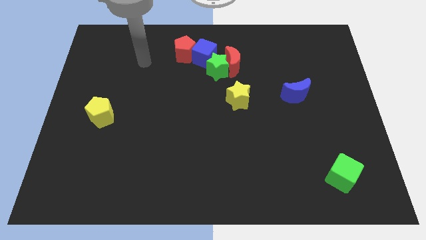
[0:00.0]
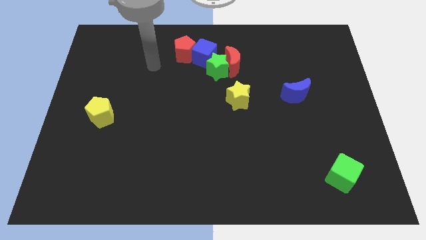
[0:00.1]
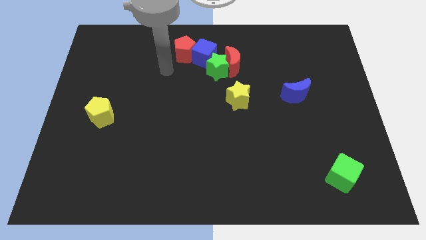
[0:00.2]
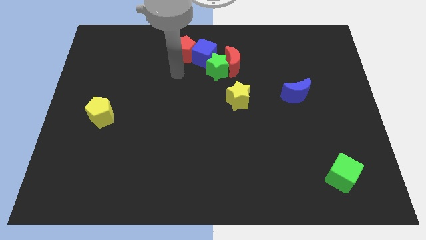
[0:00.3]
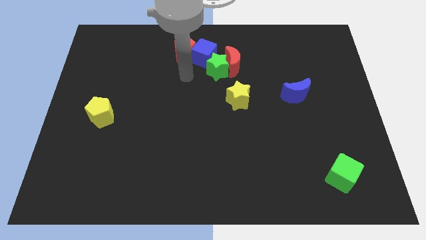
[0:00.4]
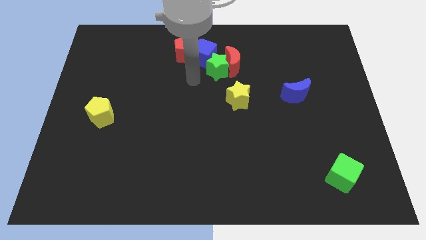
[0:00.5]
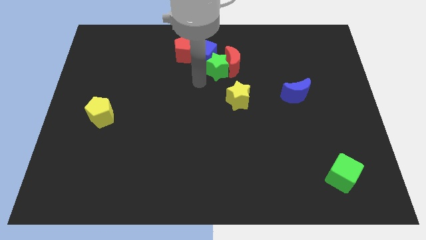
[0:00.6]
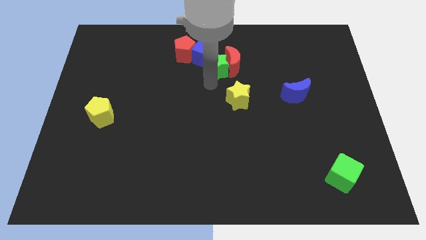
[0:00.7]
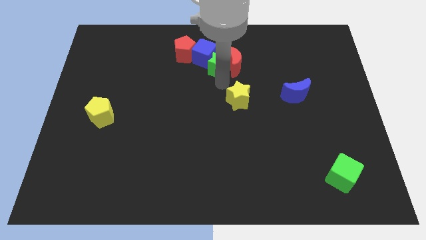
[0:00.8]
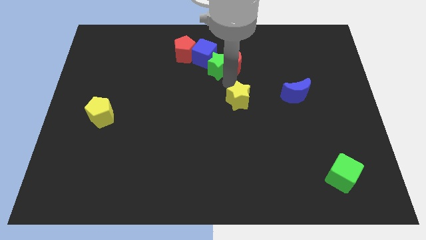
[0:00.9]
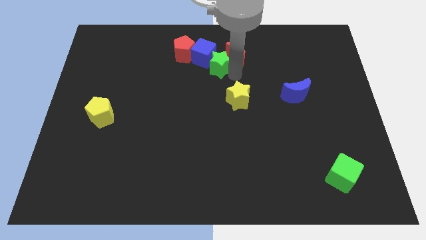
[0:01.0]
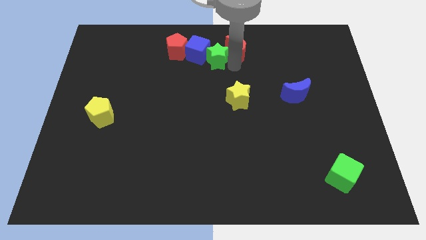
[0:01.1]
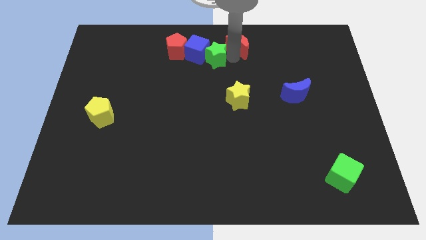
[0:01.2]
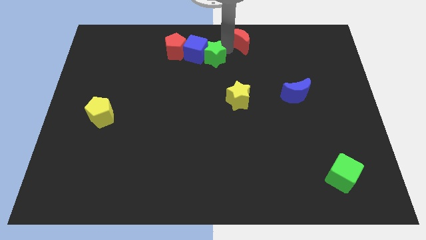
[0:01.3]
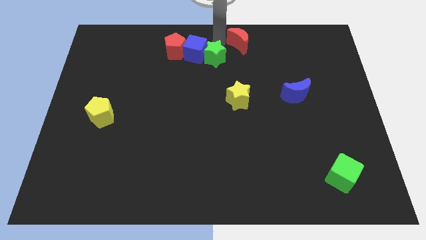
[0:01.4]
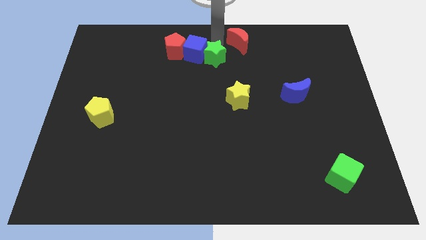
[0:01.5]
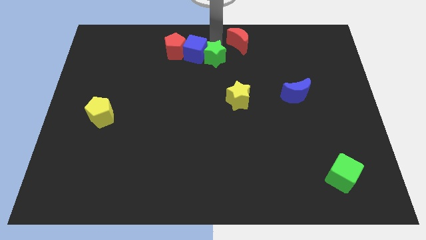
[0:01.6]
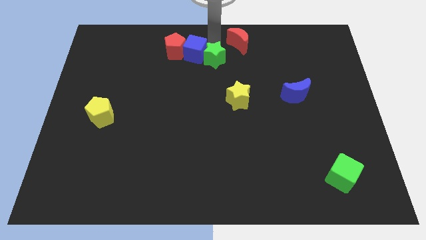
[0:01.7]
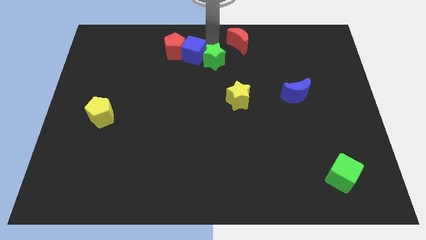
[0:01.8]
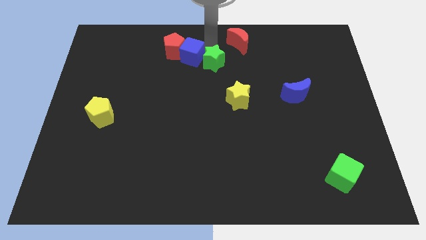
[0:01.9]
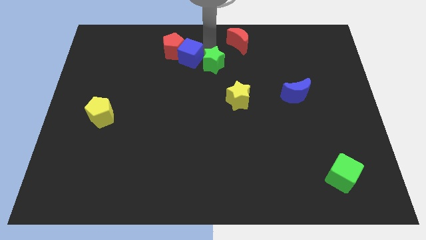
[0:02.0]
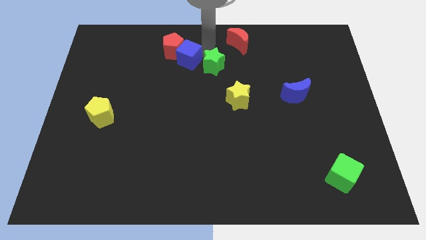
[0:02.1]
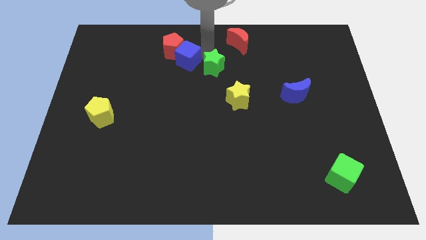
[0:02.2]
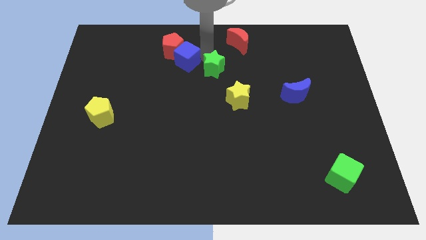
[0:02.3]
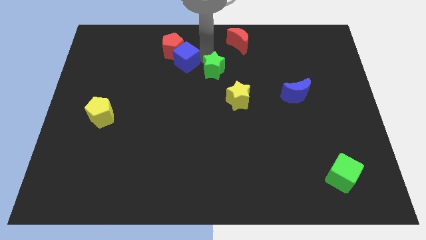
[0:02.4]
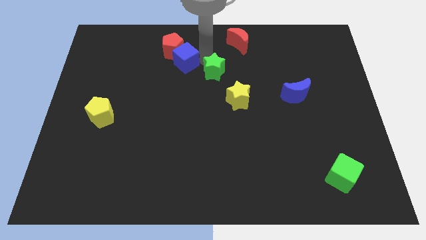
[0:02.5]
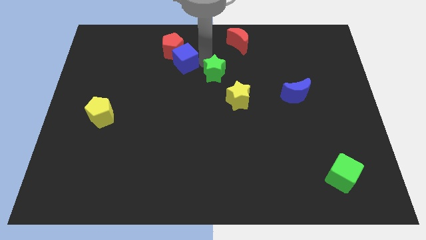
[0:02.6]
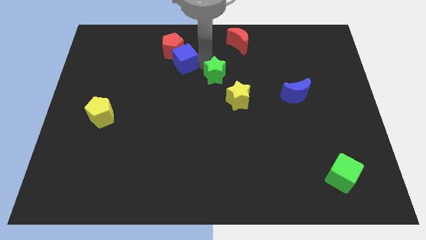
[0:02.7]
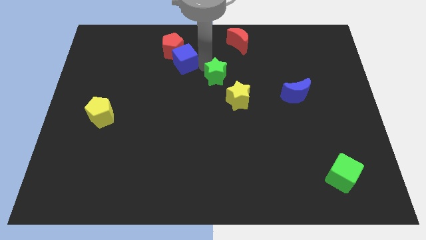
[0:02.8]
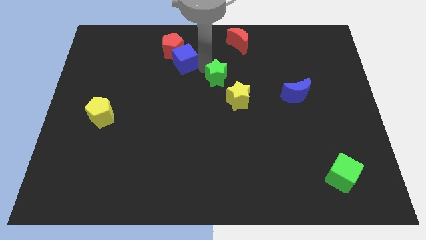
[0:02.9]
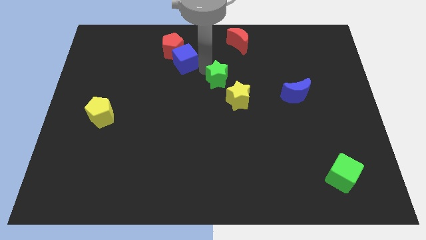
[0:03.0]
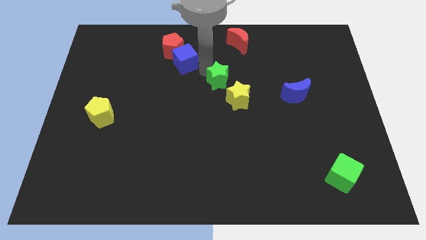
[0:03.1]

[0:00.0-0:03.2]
separate the green star from the red moon and blue cube

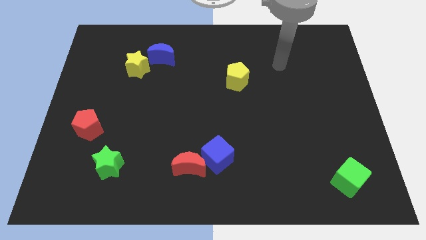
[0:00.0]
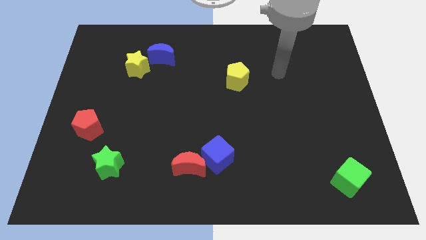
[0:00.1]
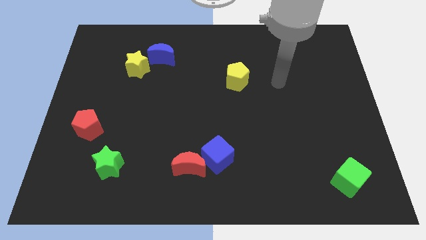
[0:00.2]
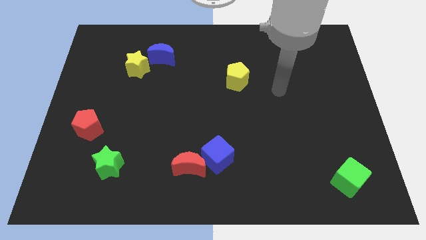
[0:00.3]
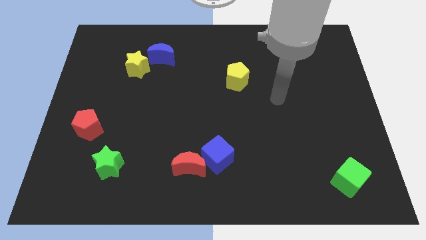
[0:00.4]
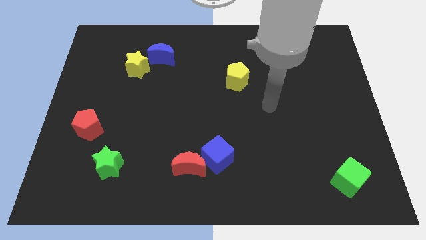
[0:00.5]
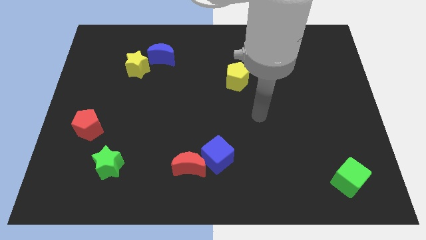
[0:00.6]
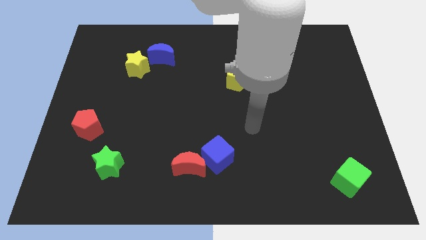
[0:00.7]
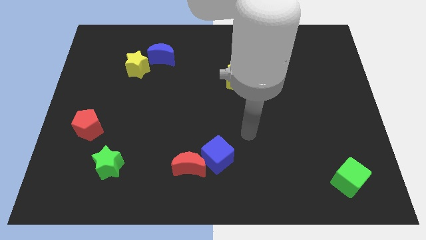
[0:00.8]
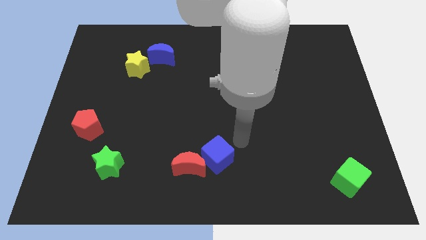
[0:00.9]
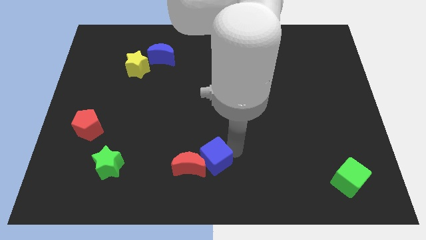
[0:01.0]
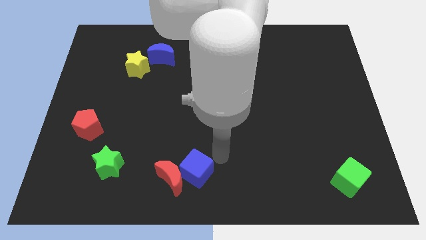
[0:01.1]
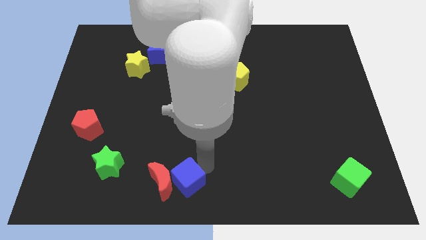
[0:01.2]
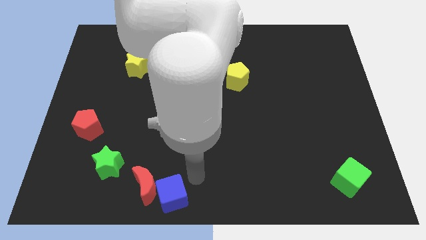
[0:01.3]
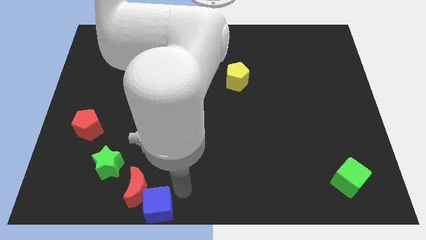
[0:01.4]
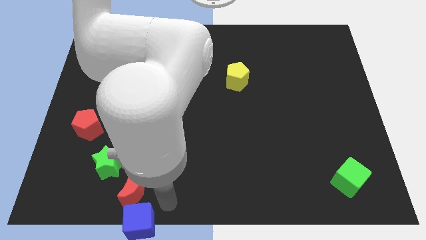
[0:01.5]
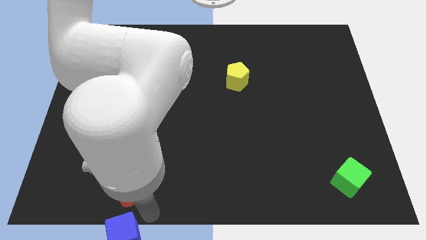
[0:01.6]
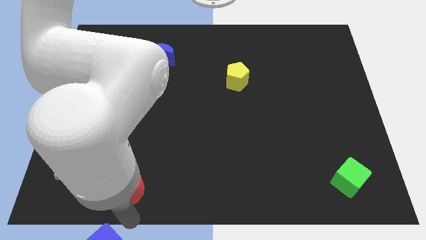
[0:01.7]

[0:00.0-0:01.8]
separate the red moon from the blue cube

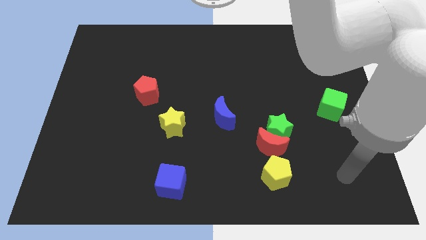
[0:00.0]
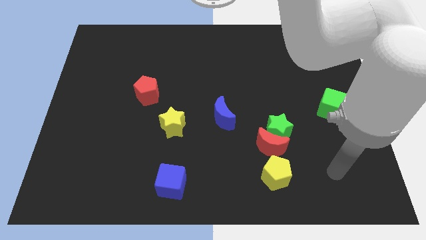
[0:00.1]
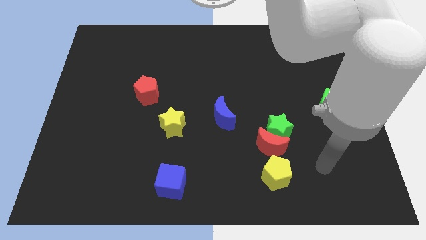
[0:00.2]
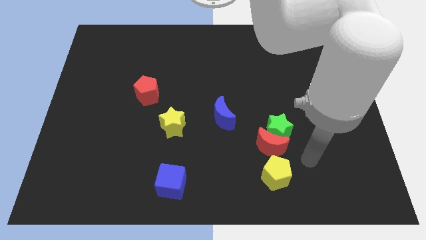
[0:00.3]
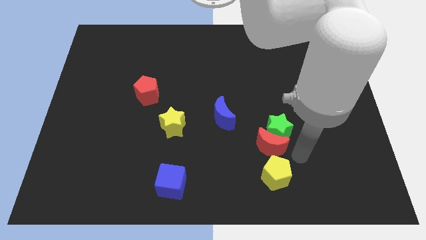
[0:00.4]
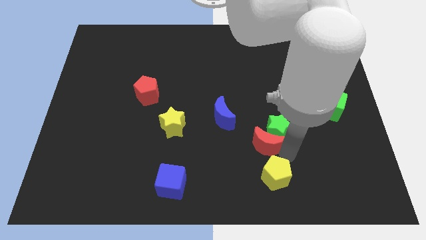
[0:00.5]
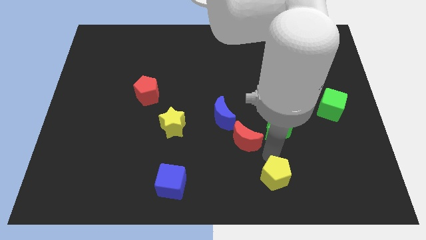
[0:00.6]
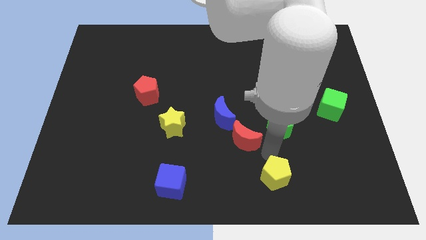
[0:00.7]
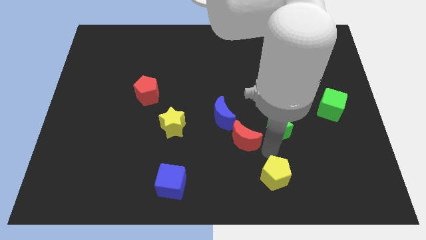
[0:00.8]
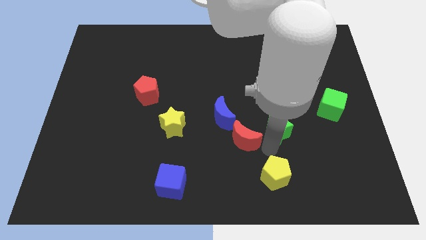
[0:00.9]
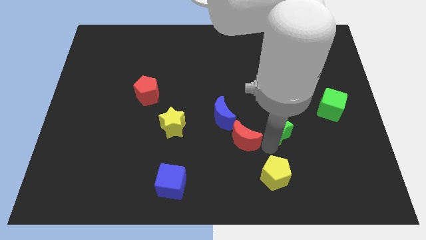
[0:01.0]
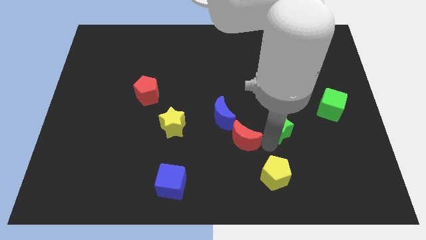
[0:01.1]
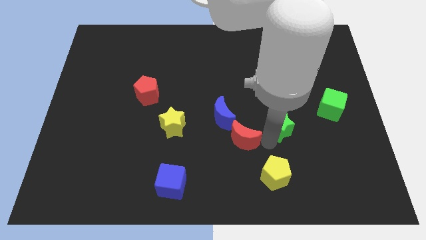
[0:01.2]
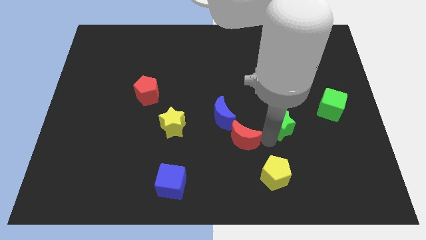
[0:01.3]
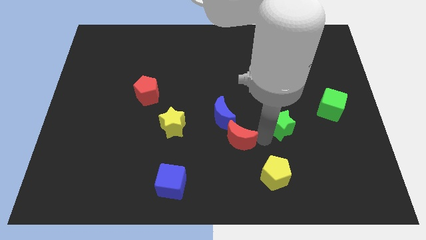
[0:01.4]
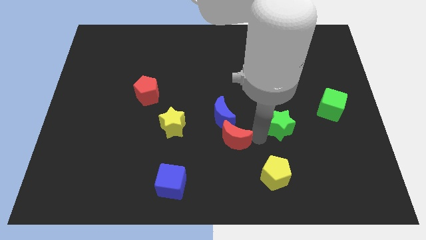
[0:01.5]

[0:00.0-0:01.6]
move the green star away from the red moon

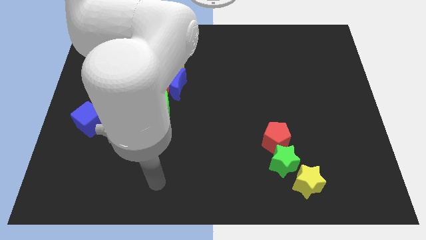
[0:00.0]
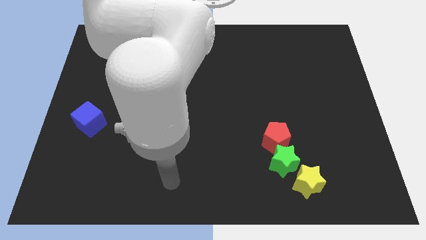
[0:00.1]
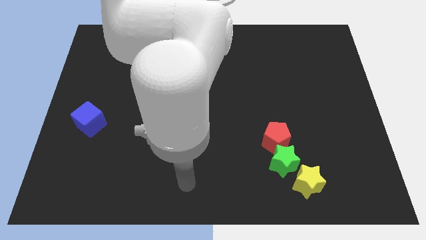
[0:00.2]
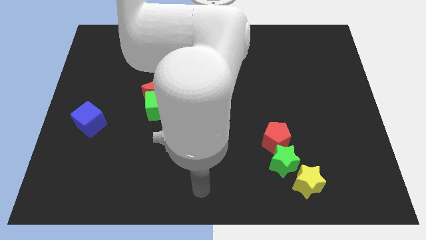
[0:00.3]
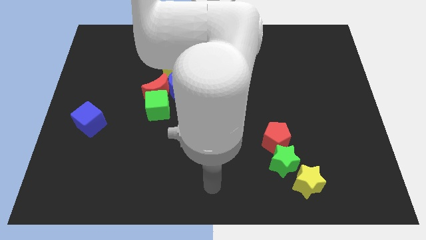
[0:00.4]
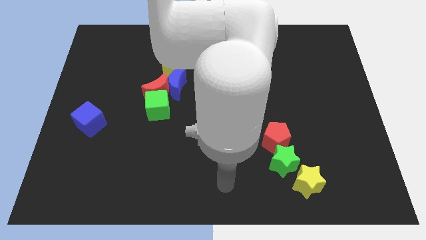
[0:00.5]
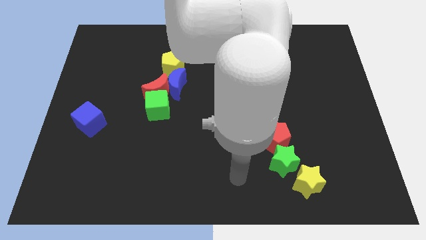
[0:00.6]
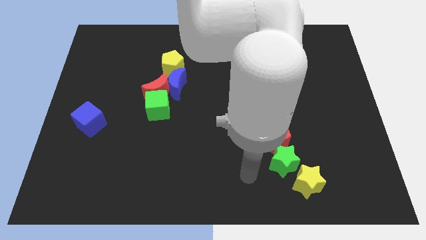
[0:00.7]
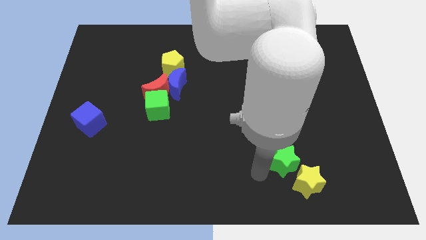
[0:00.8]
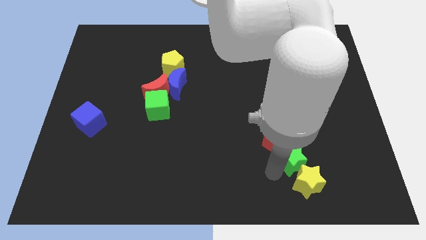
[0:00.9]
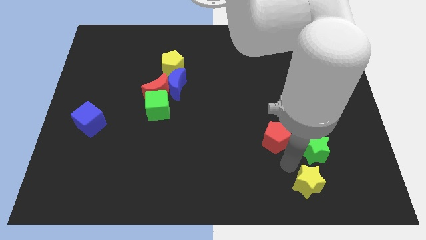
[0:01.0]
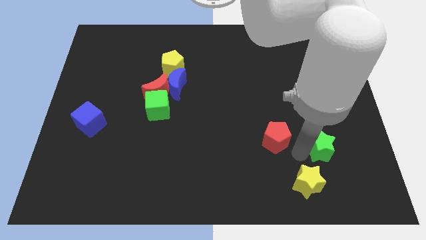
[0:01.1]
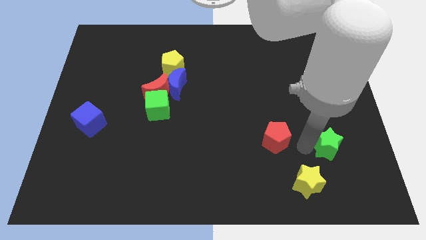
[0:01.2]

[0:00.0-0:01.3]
move the red pentagon away from the green star

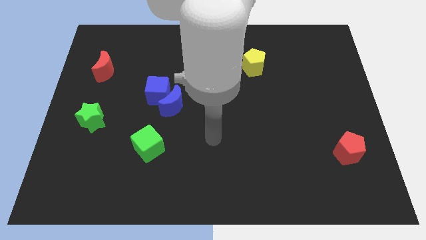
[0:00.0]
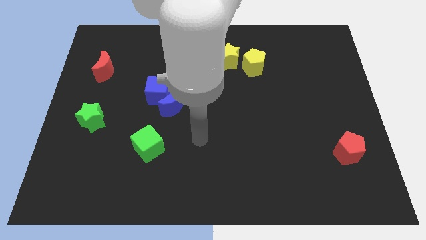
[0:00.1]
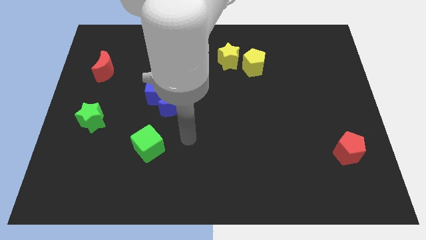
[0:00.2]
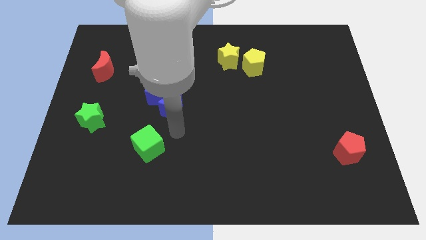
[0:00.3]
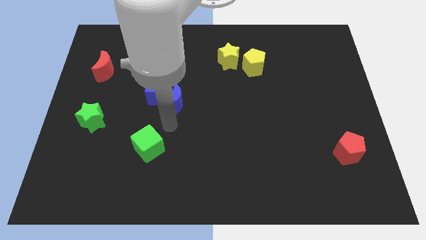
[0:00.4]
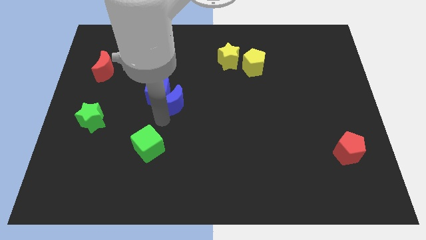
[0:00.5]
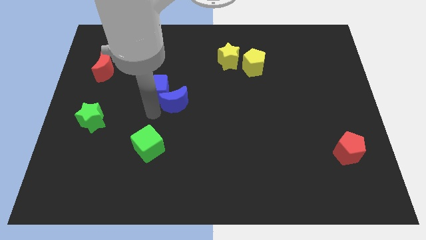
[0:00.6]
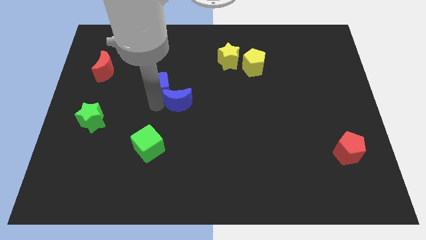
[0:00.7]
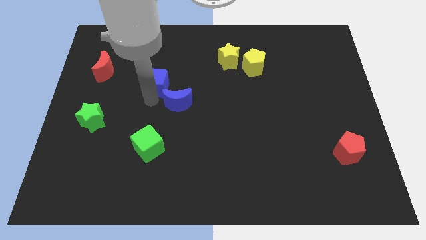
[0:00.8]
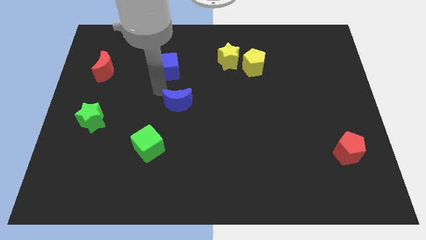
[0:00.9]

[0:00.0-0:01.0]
move the blue moon away from the blue cube

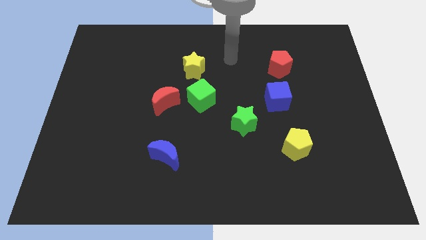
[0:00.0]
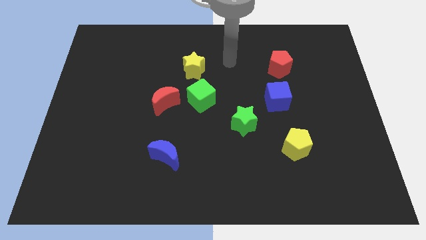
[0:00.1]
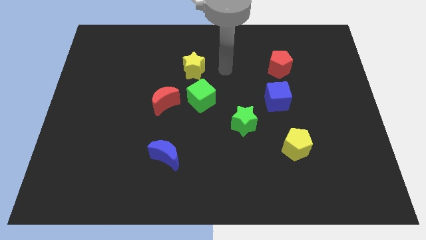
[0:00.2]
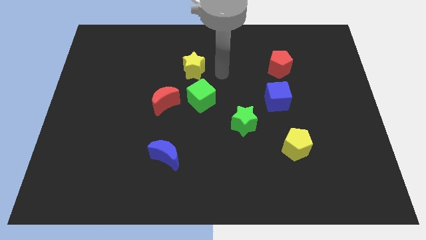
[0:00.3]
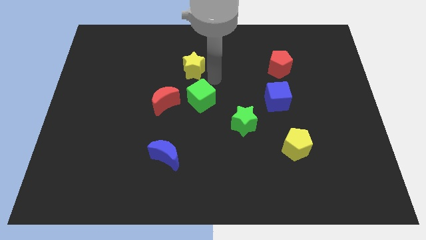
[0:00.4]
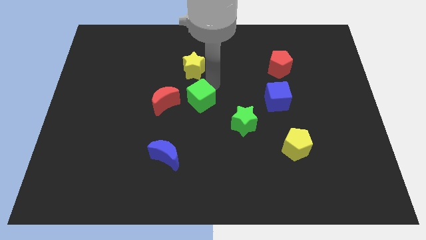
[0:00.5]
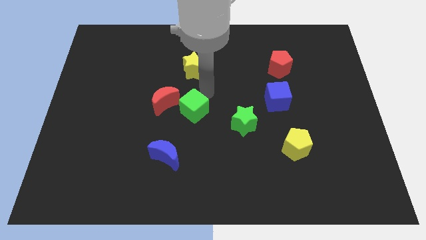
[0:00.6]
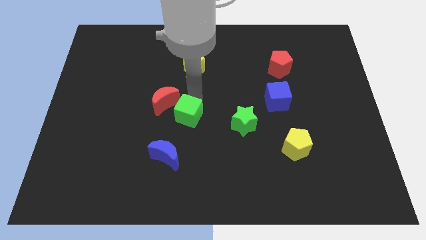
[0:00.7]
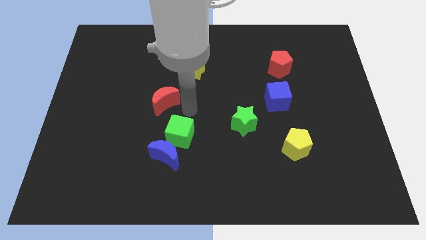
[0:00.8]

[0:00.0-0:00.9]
pull the red moon apart from the green cube
